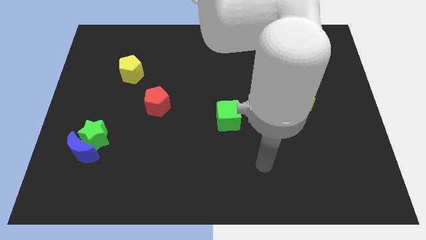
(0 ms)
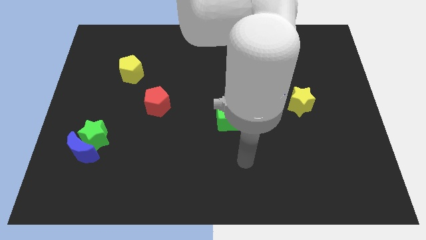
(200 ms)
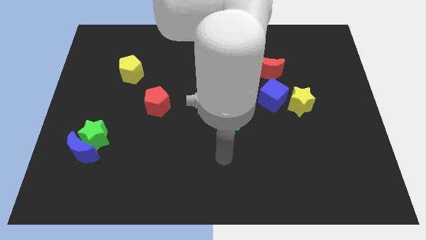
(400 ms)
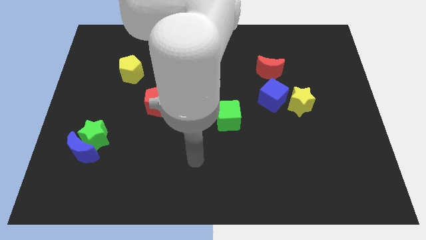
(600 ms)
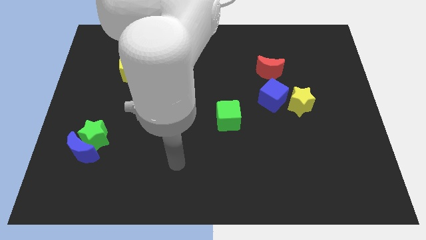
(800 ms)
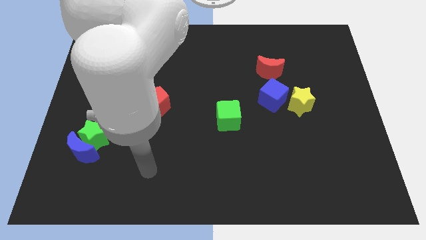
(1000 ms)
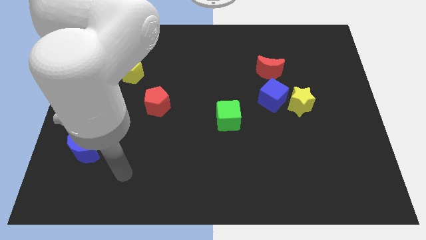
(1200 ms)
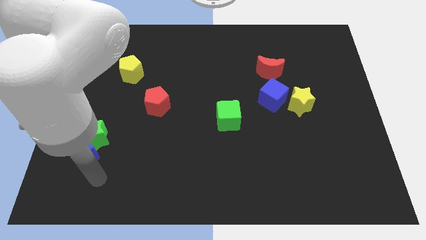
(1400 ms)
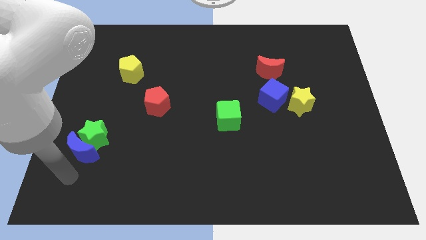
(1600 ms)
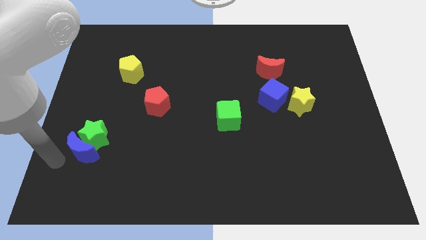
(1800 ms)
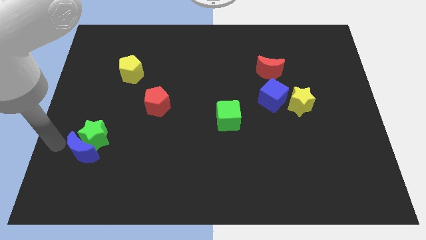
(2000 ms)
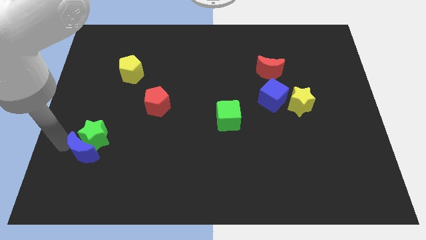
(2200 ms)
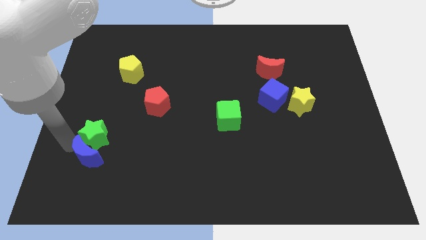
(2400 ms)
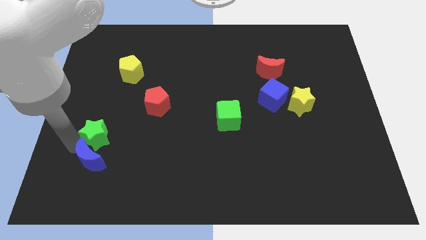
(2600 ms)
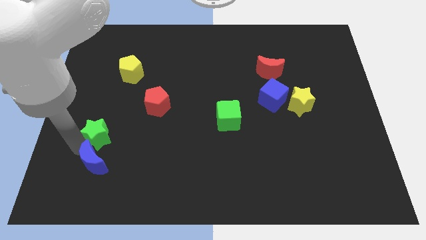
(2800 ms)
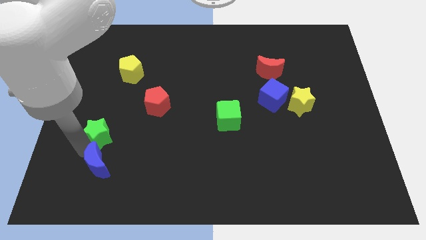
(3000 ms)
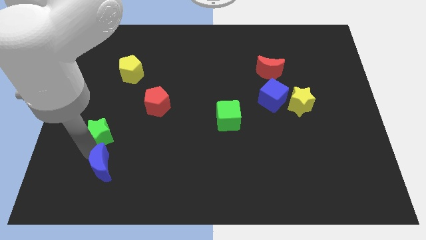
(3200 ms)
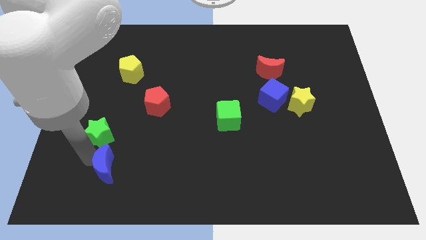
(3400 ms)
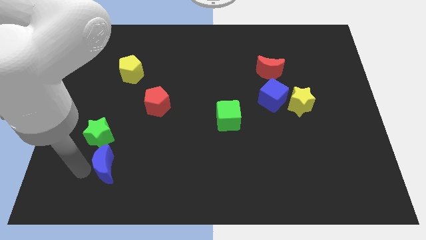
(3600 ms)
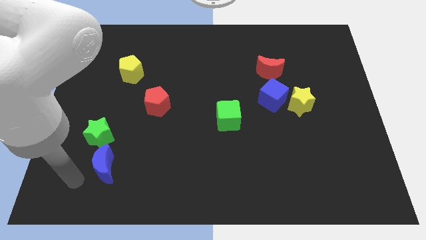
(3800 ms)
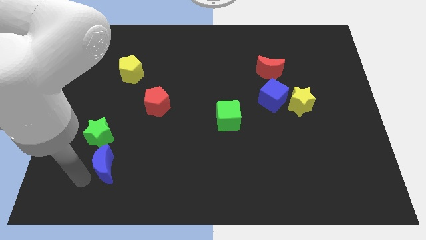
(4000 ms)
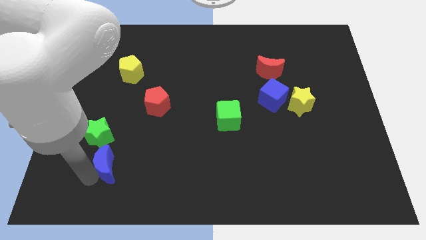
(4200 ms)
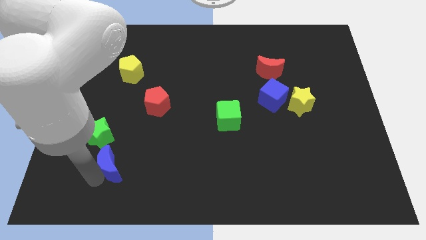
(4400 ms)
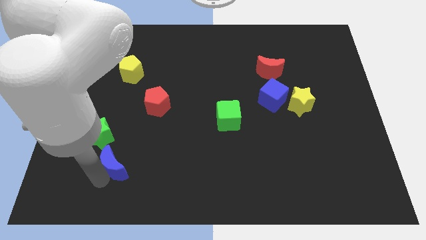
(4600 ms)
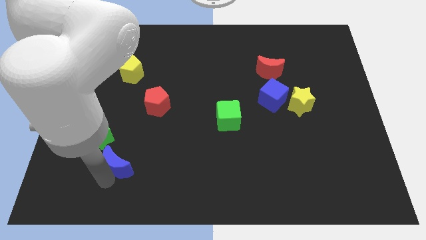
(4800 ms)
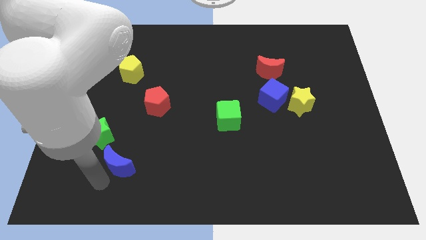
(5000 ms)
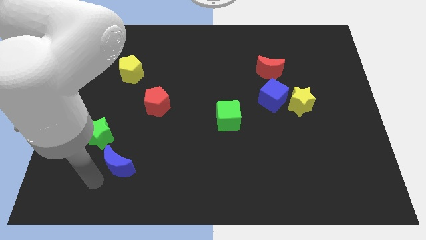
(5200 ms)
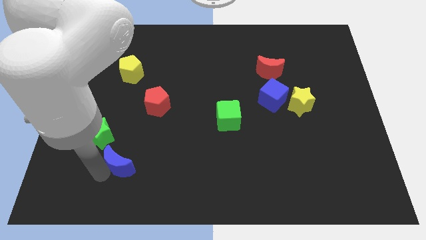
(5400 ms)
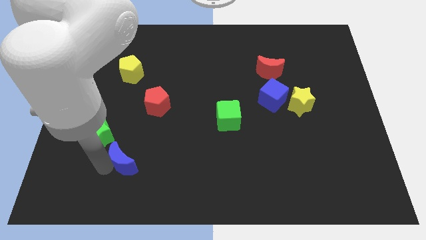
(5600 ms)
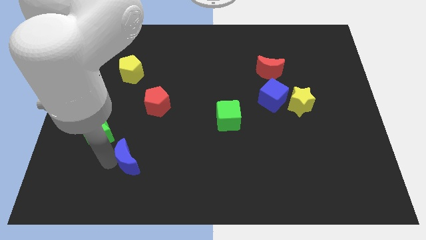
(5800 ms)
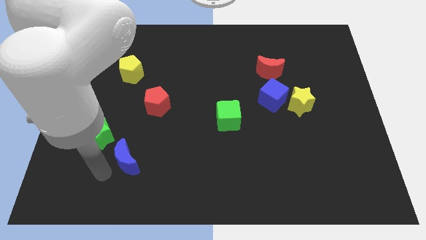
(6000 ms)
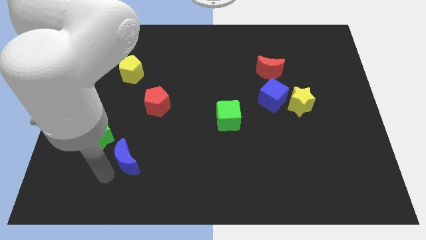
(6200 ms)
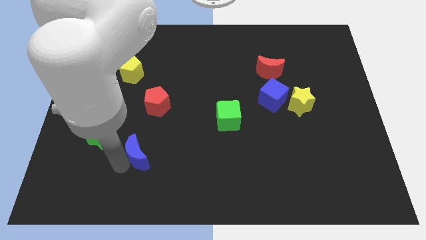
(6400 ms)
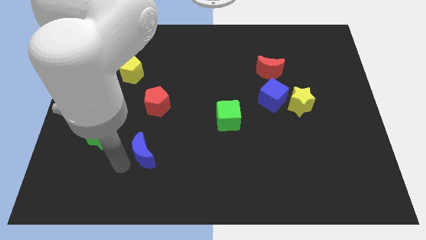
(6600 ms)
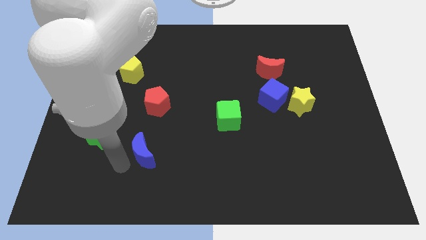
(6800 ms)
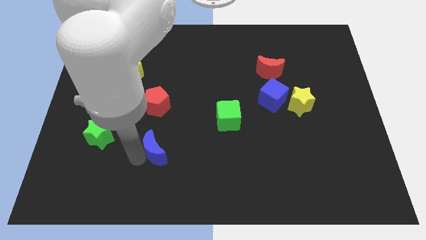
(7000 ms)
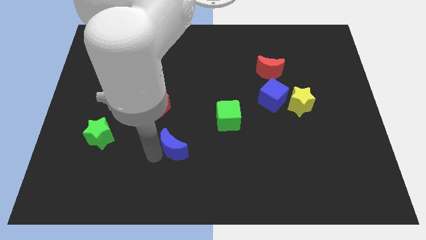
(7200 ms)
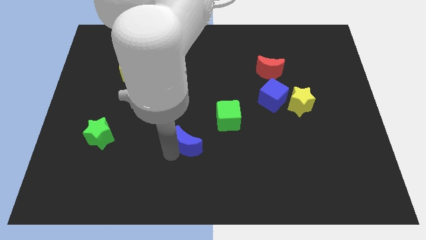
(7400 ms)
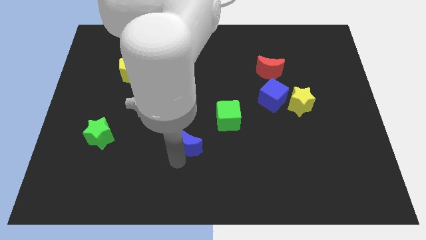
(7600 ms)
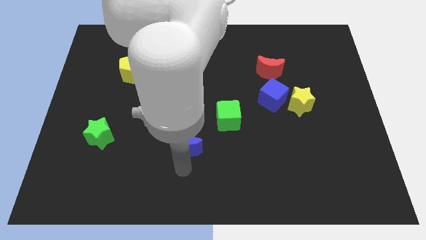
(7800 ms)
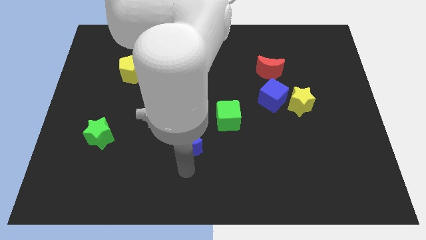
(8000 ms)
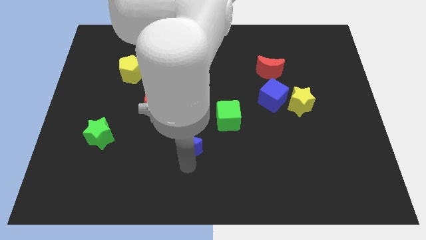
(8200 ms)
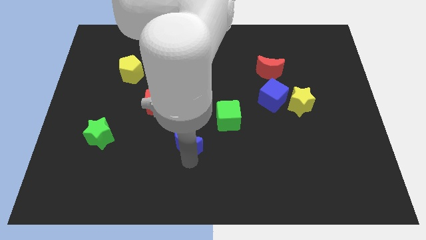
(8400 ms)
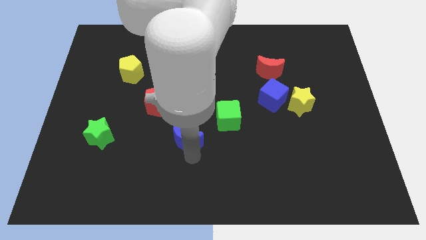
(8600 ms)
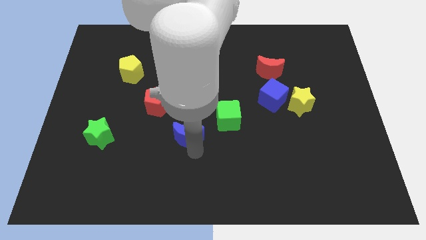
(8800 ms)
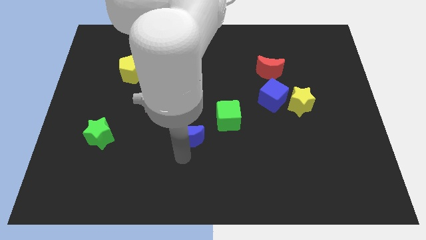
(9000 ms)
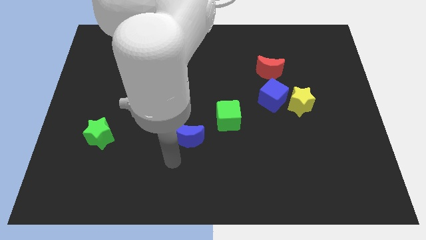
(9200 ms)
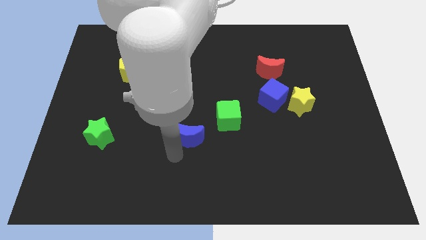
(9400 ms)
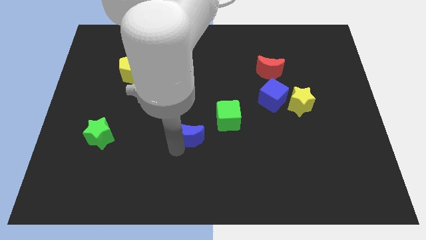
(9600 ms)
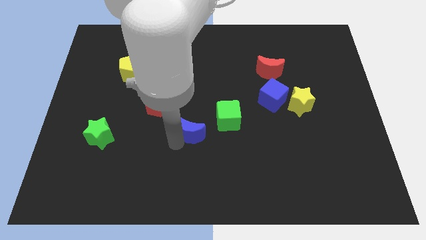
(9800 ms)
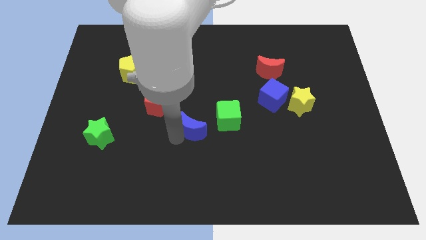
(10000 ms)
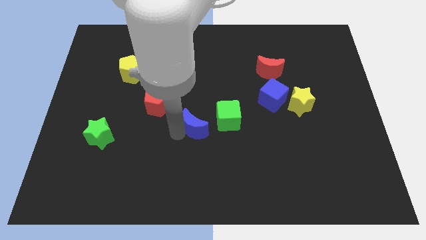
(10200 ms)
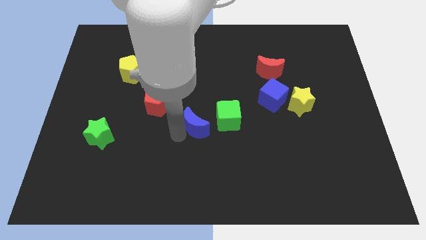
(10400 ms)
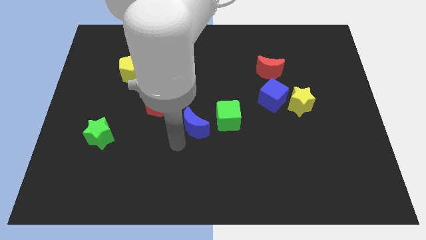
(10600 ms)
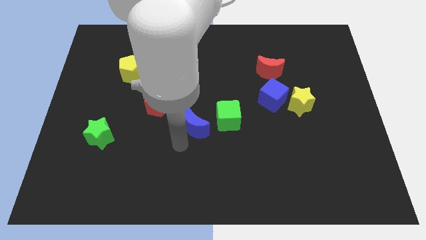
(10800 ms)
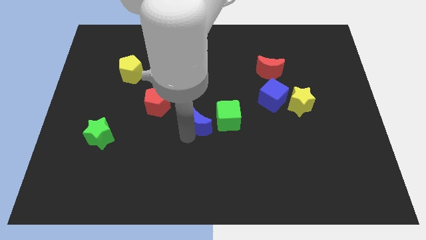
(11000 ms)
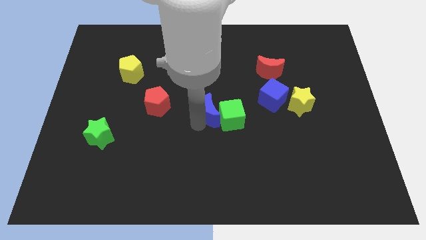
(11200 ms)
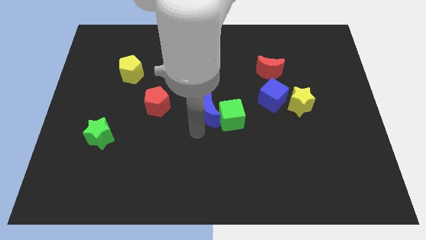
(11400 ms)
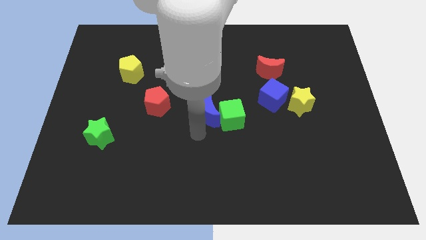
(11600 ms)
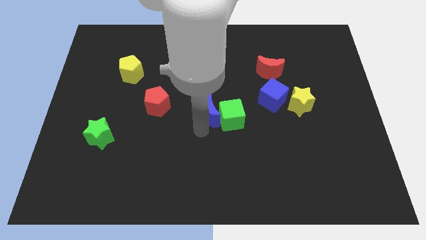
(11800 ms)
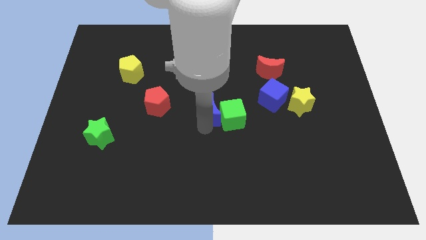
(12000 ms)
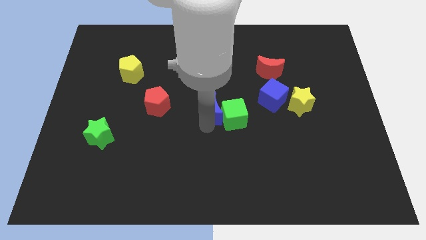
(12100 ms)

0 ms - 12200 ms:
move the blue moon just left of the blue cube
